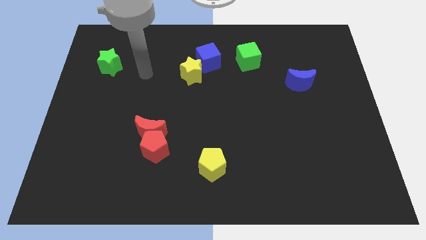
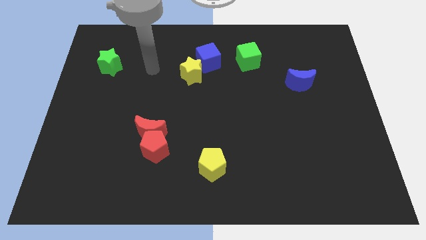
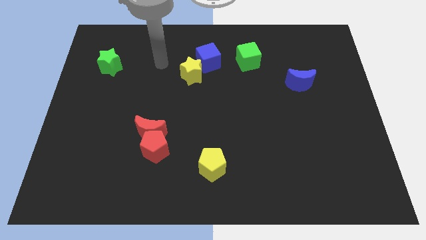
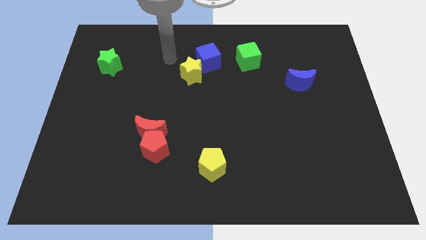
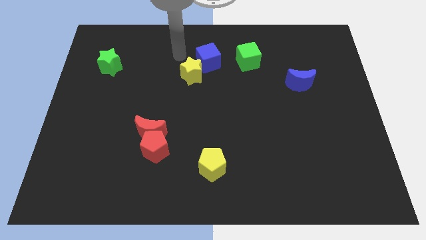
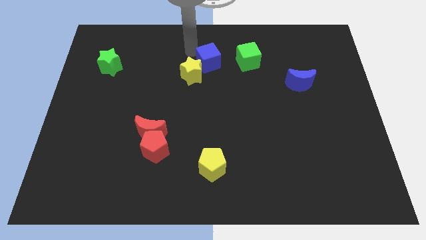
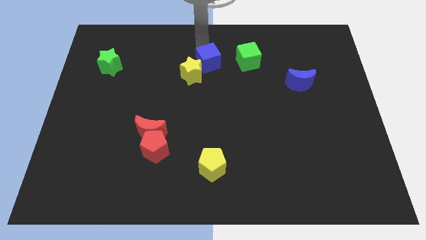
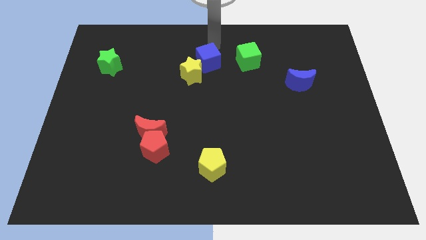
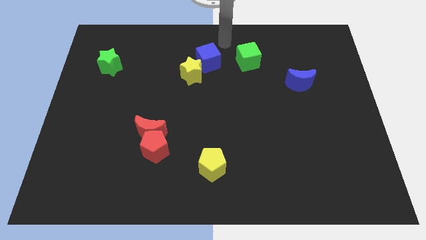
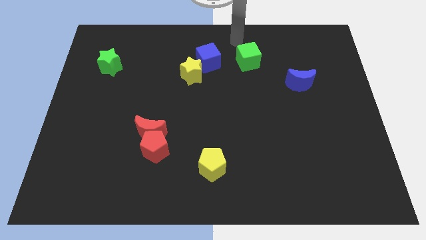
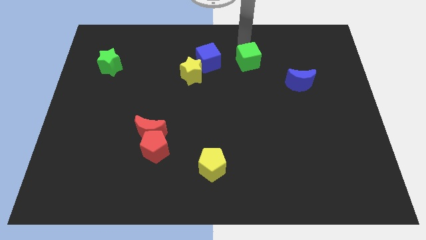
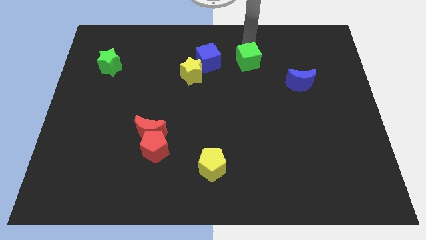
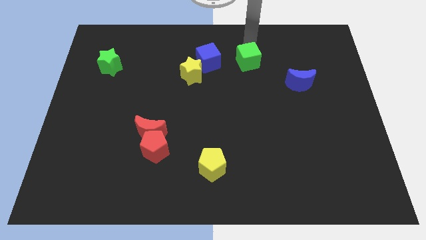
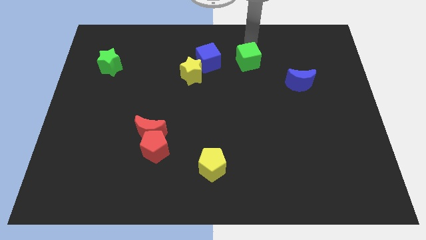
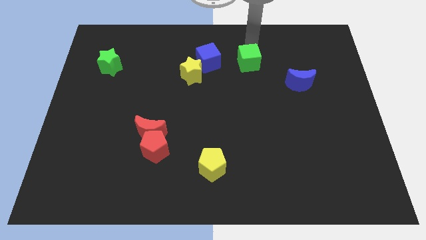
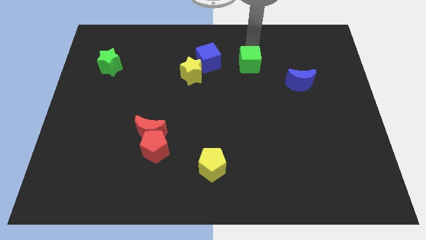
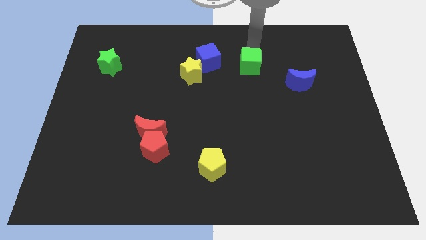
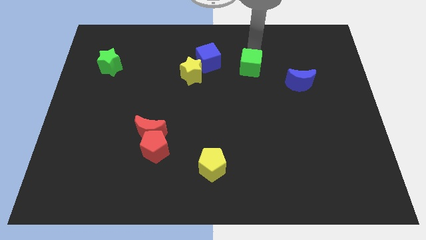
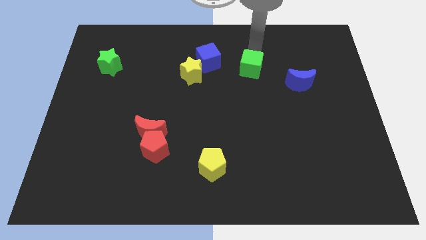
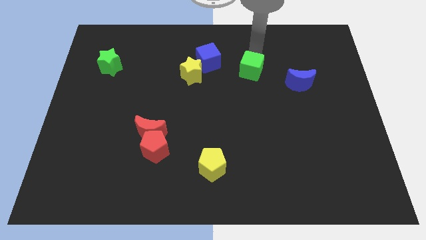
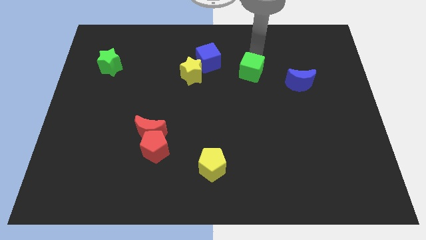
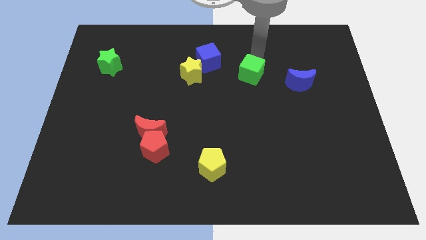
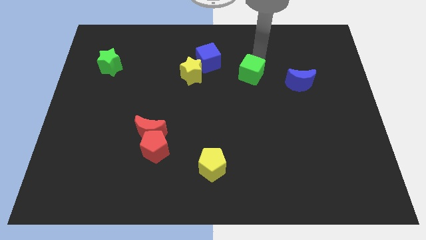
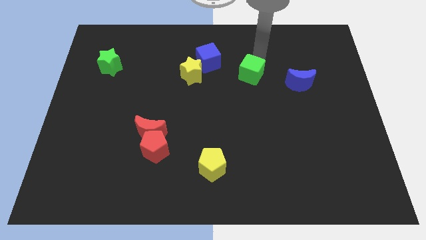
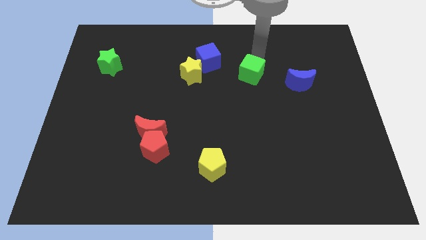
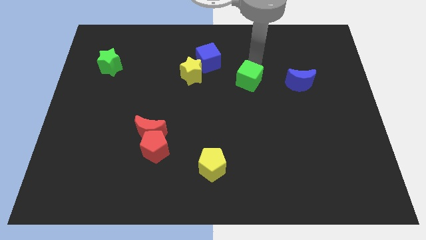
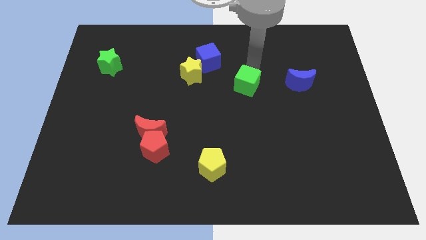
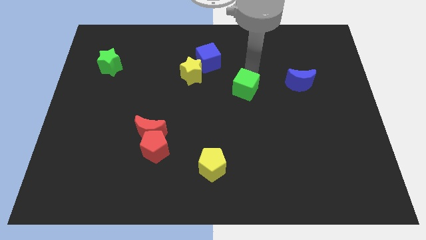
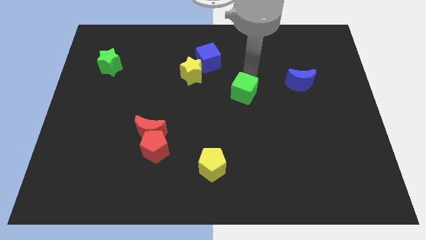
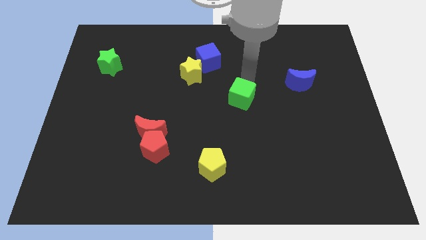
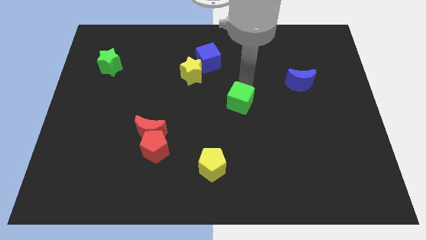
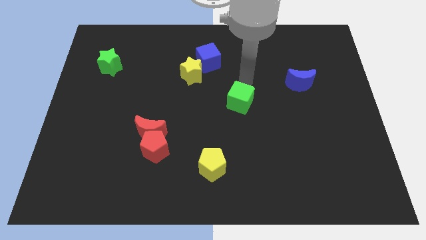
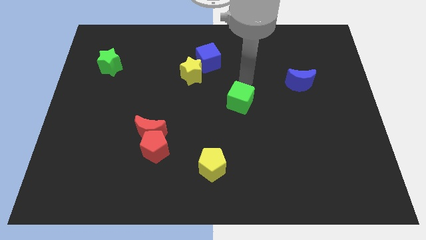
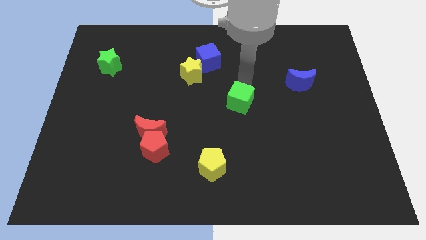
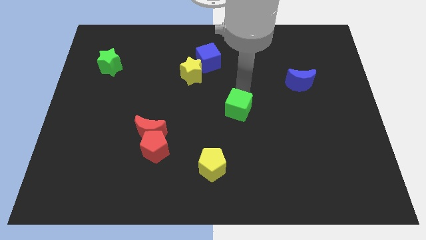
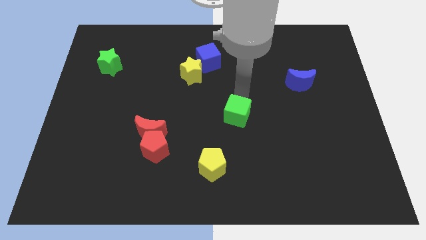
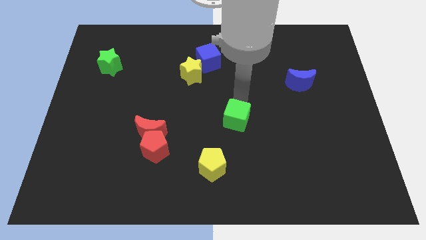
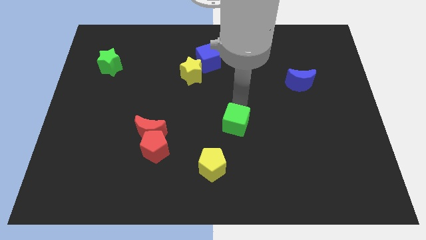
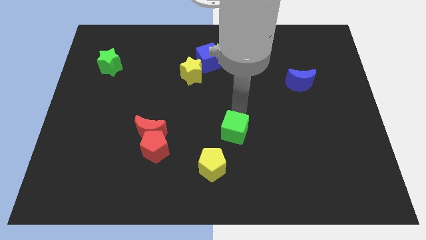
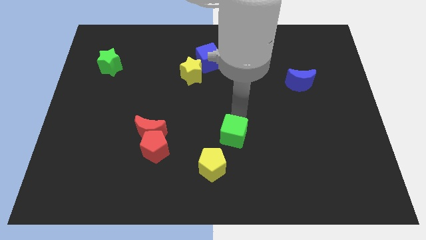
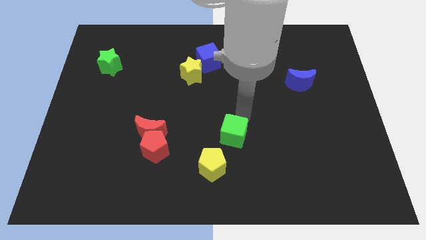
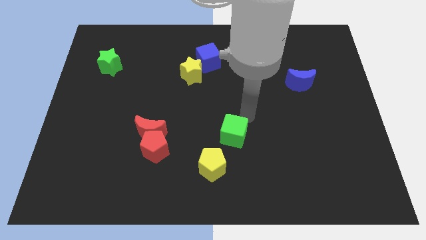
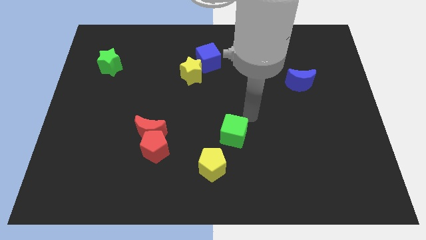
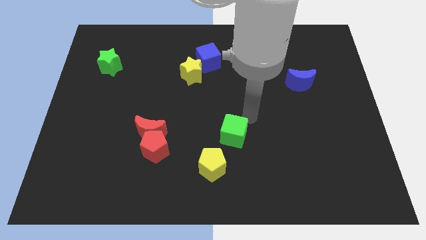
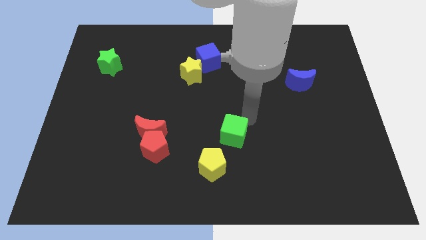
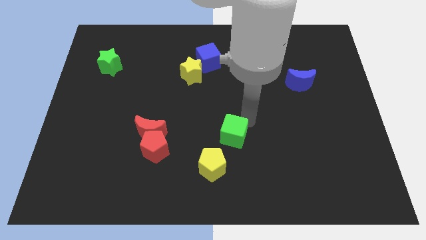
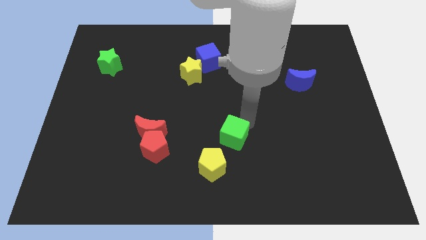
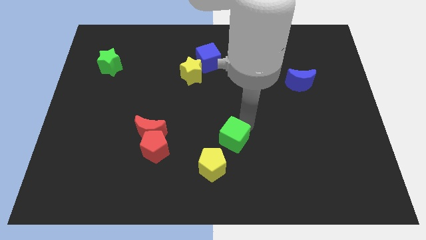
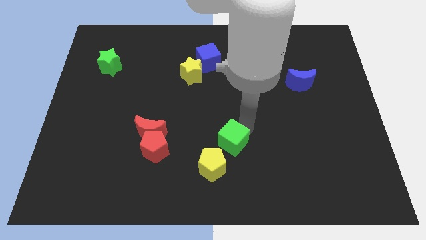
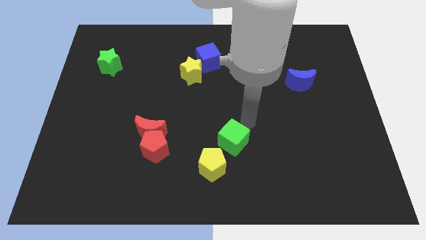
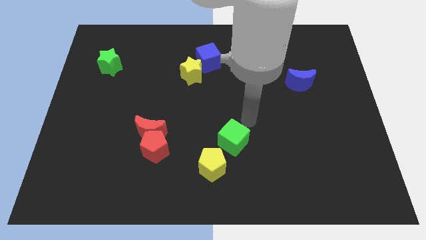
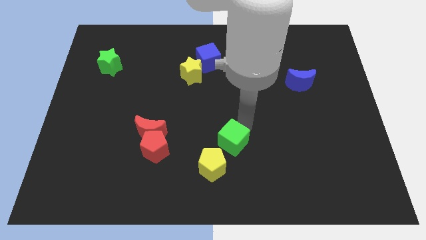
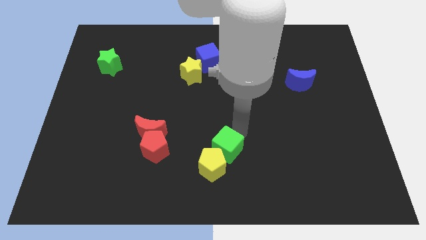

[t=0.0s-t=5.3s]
slide the green cube close to the yellow pentagon

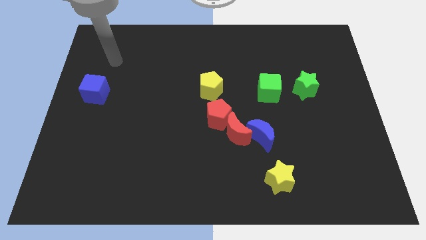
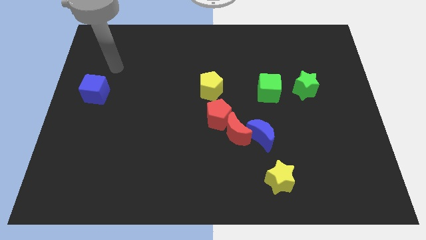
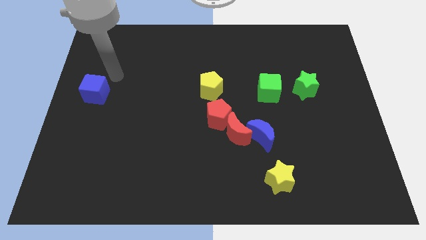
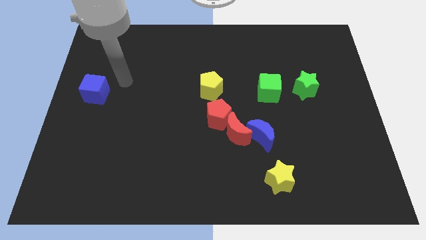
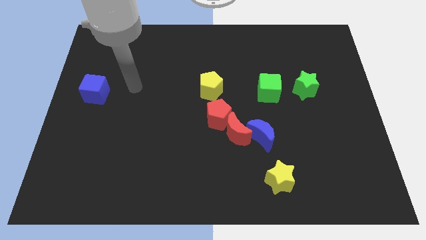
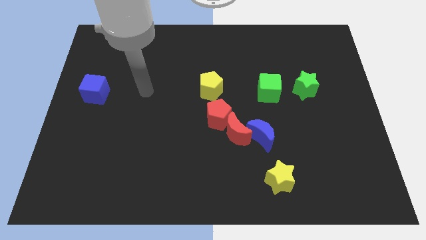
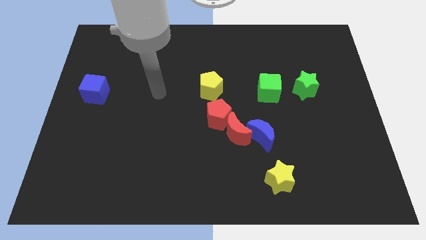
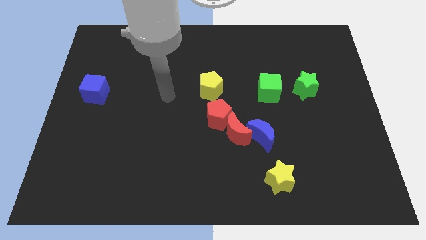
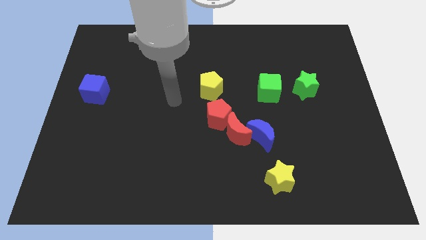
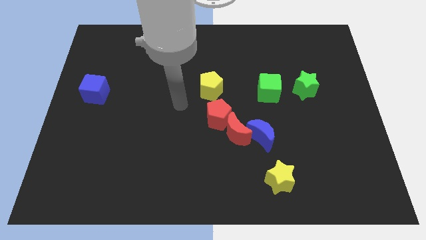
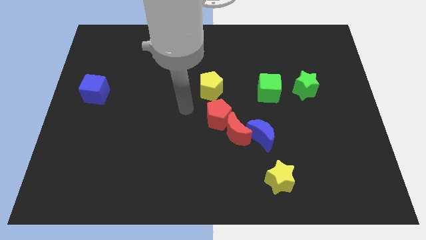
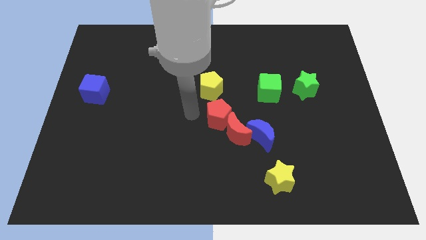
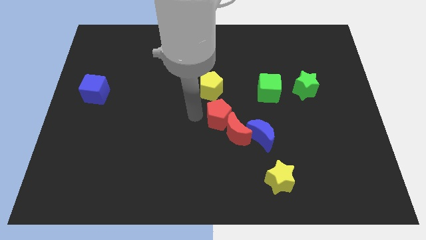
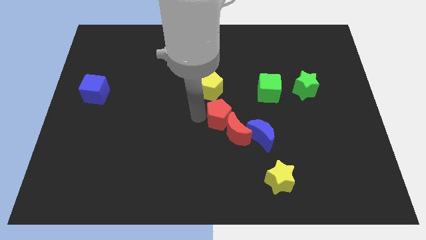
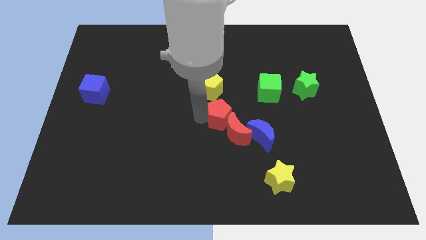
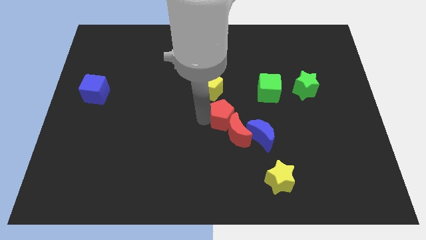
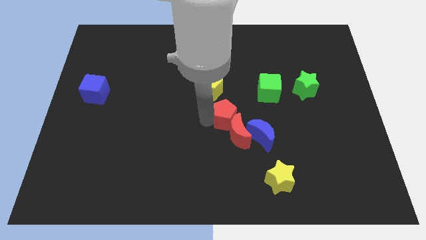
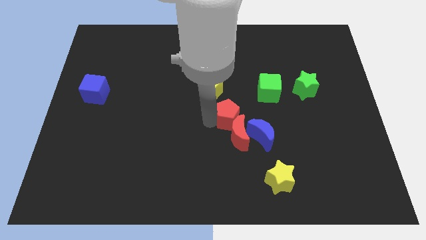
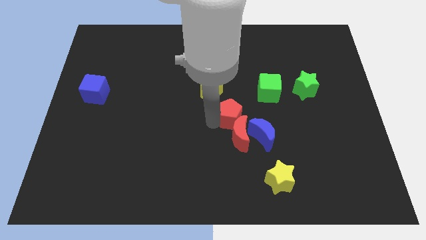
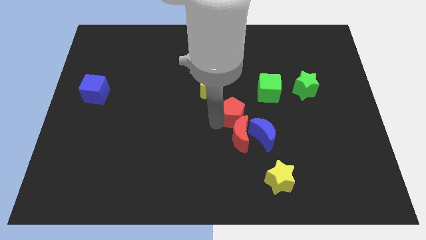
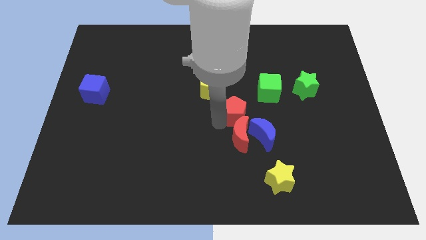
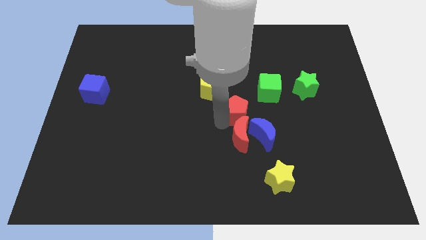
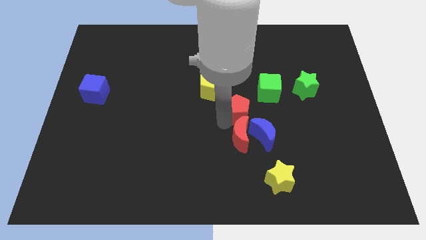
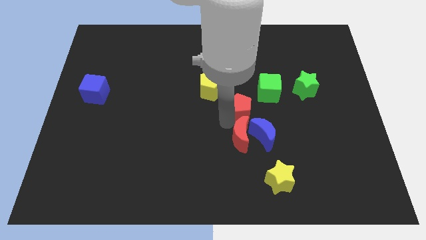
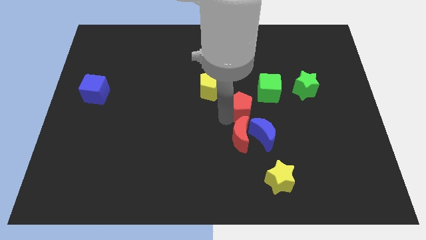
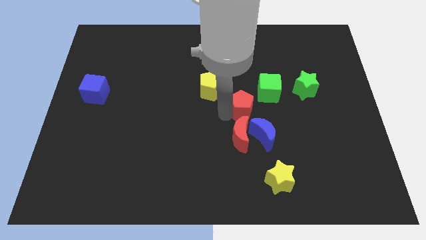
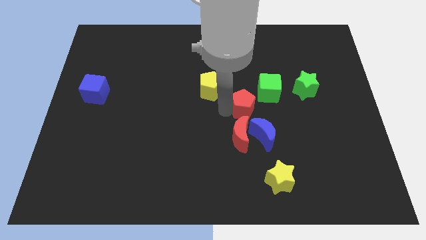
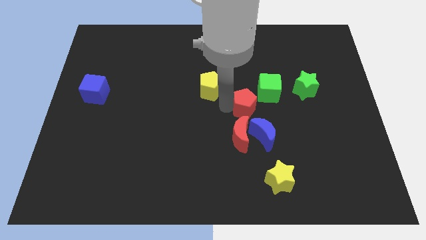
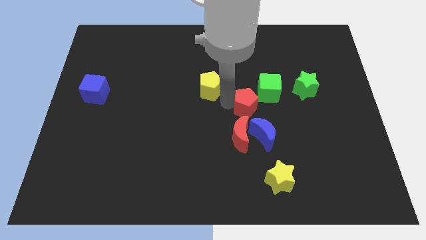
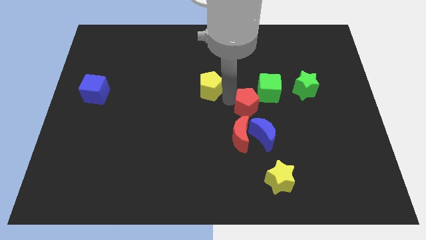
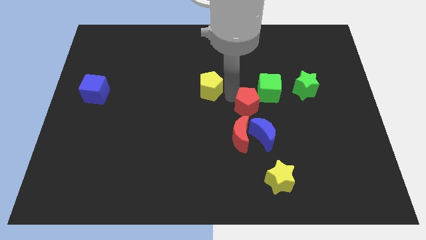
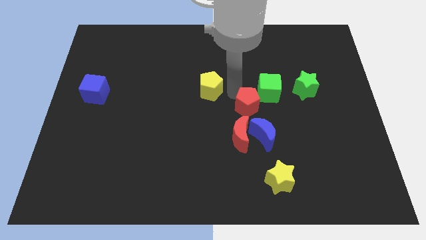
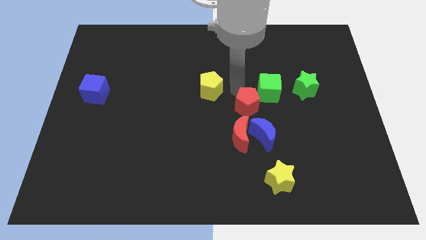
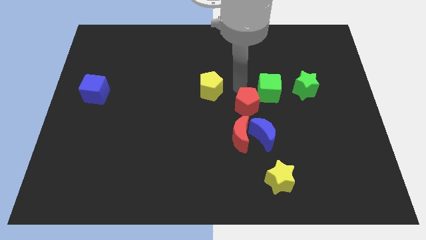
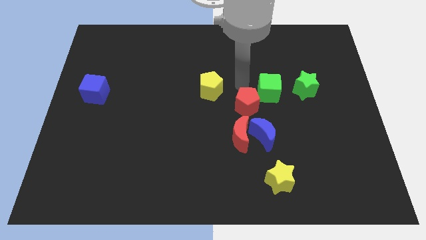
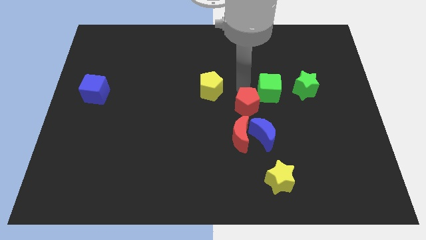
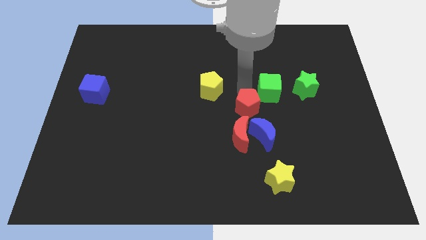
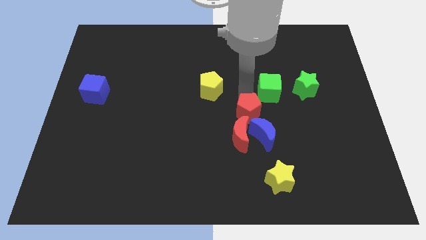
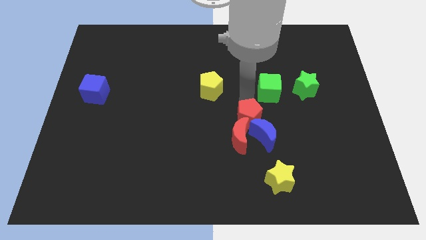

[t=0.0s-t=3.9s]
push the red pentagon next to the blue moon
